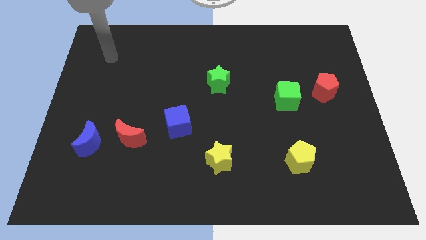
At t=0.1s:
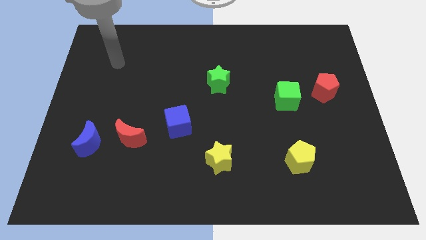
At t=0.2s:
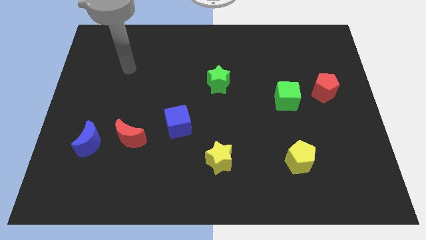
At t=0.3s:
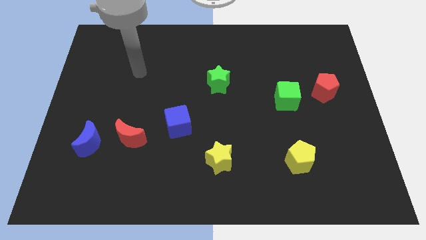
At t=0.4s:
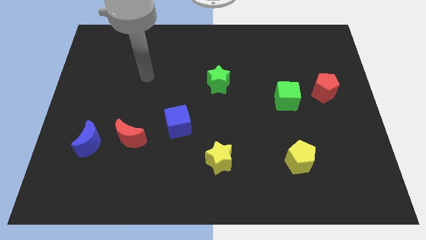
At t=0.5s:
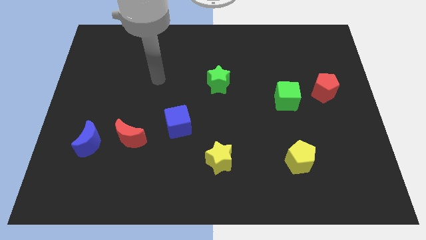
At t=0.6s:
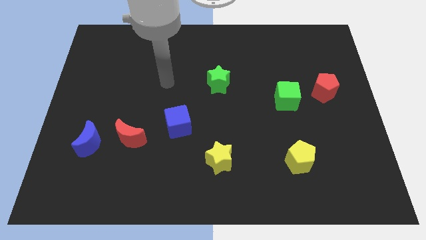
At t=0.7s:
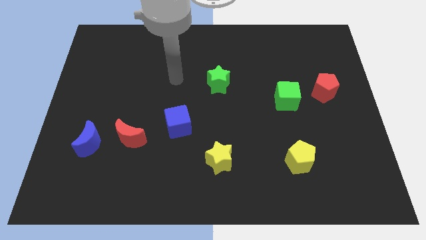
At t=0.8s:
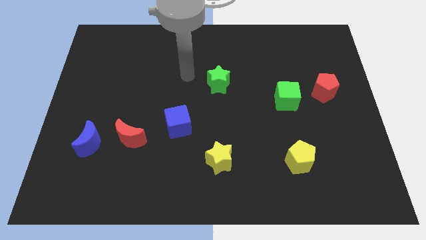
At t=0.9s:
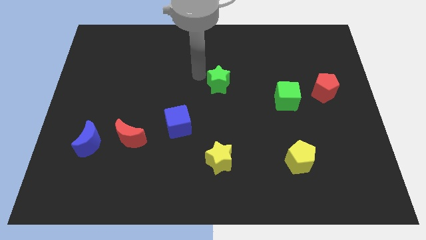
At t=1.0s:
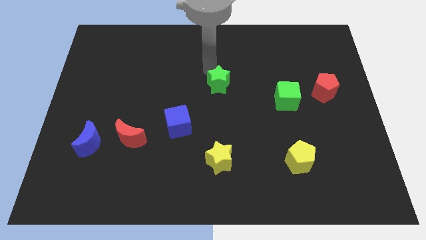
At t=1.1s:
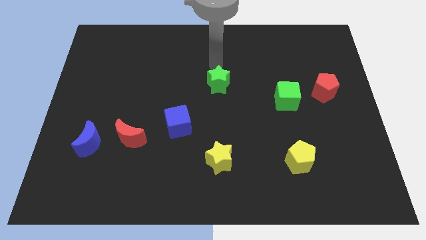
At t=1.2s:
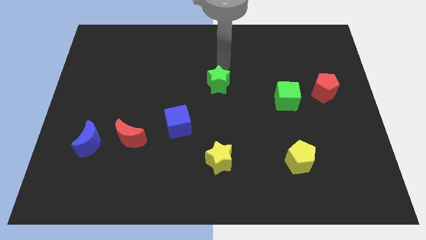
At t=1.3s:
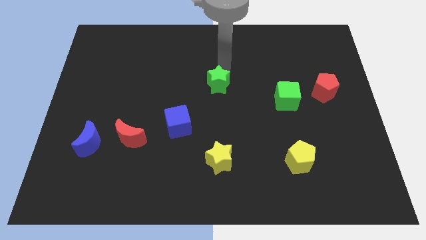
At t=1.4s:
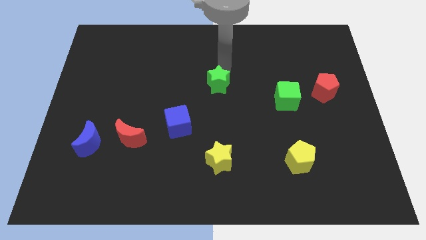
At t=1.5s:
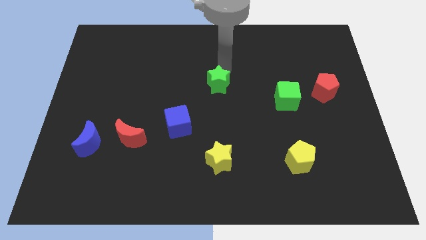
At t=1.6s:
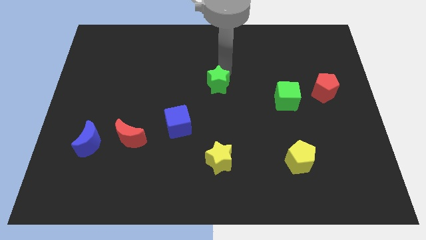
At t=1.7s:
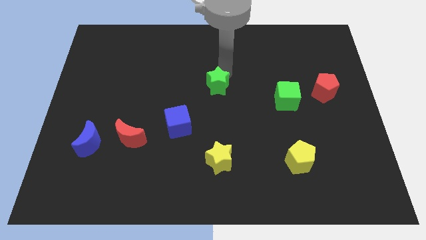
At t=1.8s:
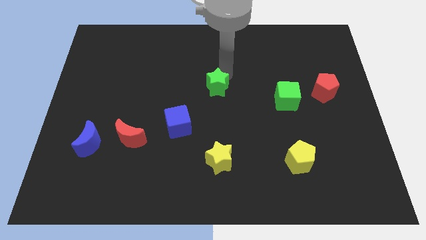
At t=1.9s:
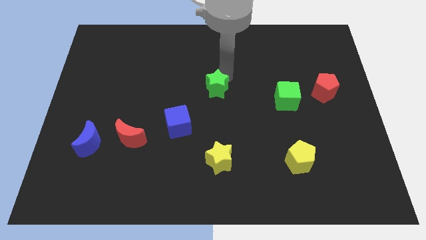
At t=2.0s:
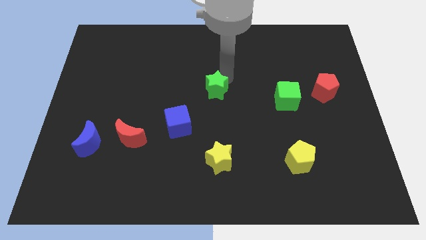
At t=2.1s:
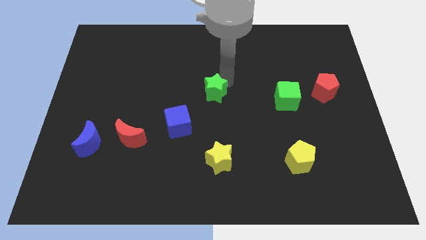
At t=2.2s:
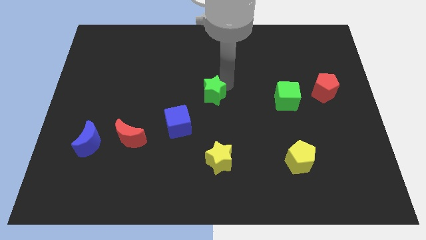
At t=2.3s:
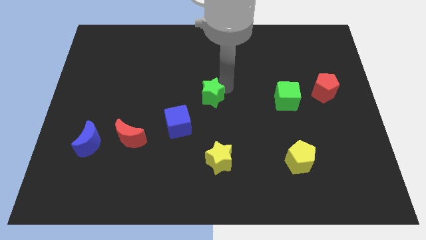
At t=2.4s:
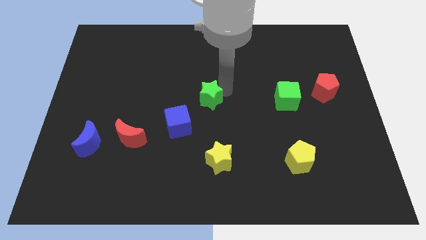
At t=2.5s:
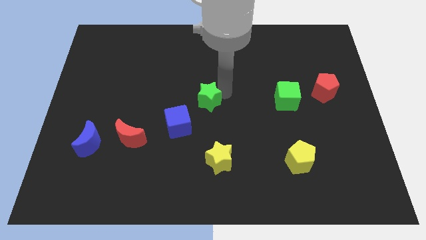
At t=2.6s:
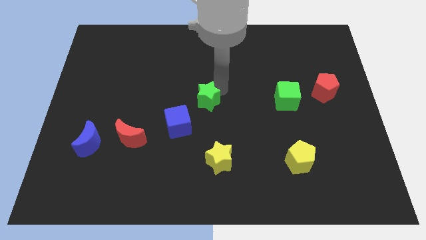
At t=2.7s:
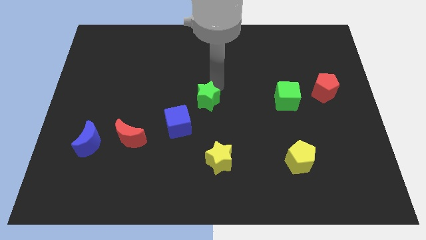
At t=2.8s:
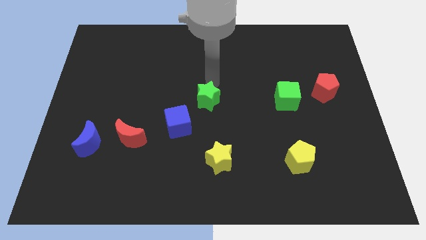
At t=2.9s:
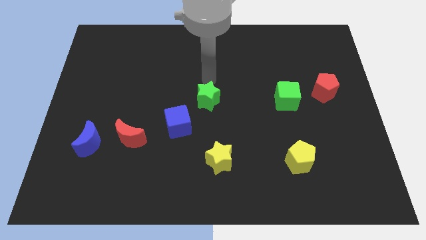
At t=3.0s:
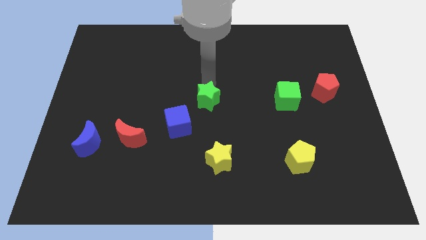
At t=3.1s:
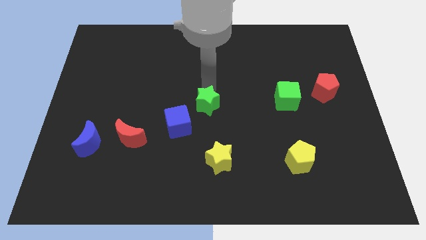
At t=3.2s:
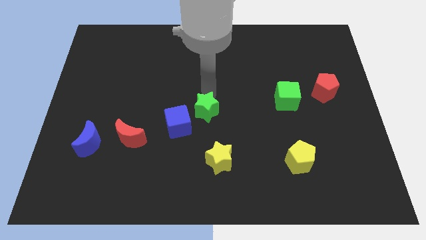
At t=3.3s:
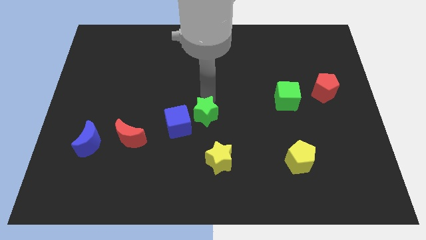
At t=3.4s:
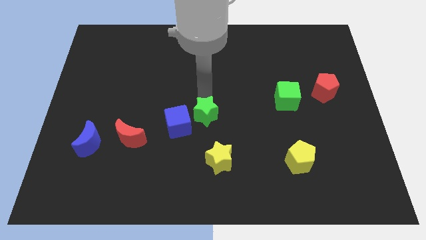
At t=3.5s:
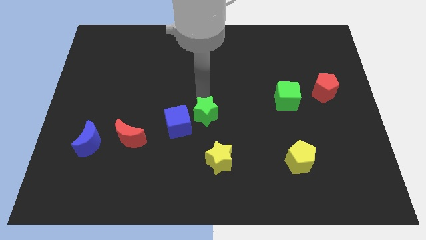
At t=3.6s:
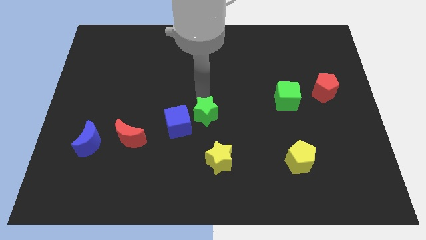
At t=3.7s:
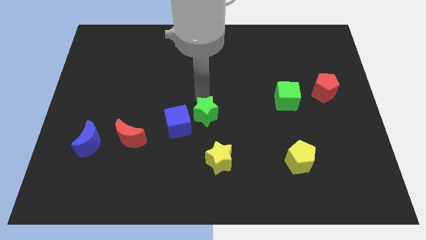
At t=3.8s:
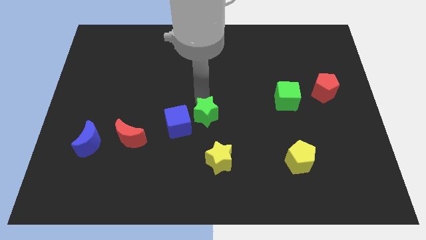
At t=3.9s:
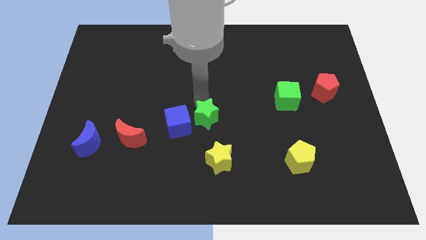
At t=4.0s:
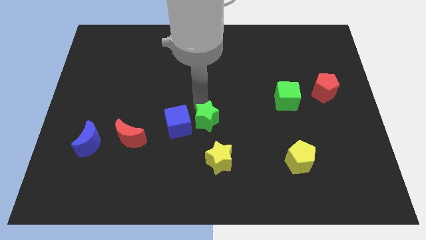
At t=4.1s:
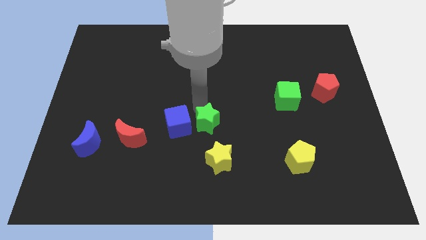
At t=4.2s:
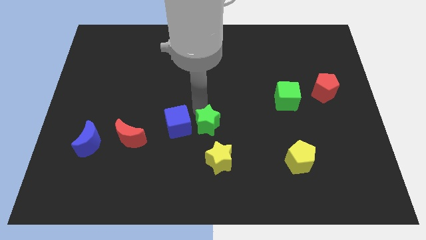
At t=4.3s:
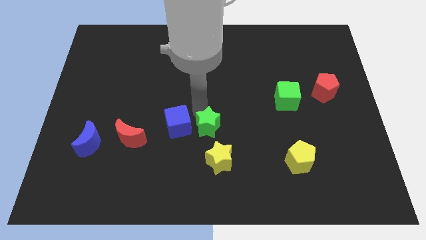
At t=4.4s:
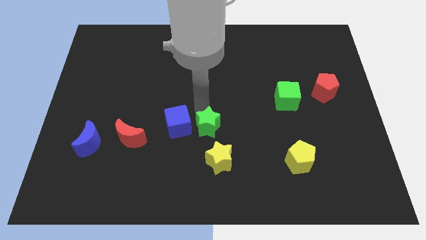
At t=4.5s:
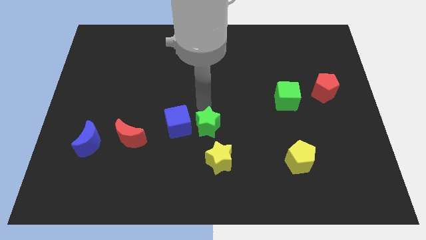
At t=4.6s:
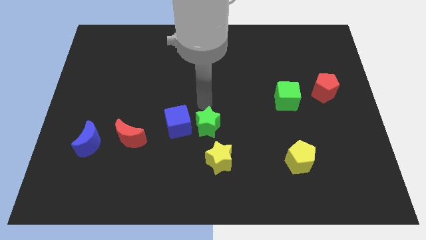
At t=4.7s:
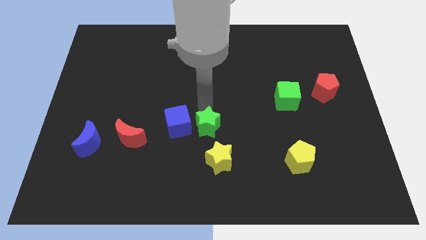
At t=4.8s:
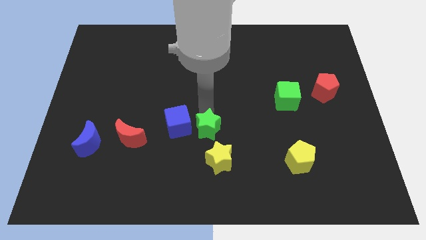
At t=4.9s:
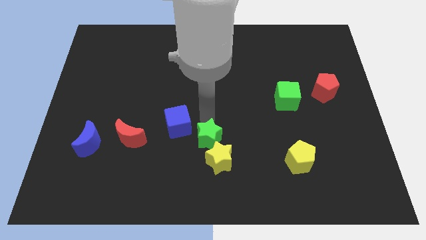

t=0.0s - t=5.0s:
push the green star towards the yellow star

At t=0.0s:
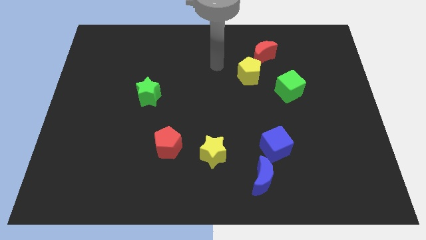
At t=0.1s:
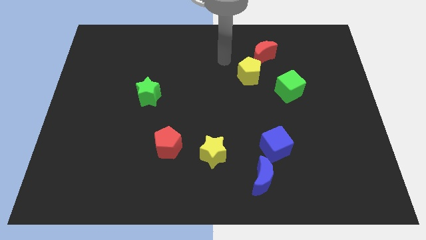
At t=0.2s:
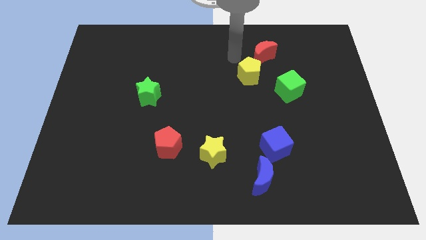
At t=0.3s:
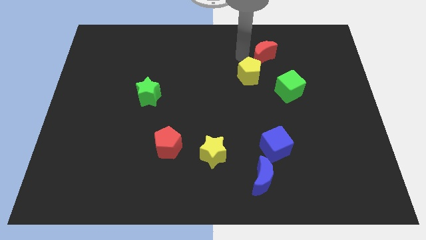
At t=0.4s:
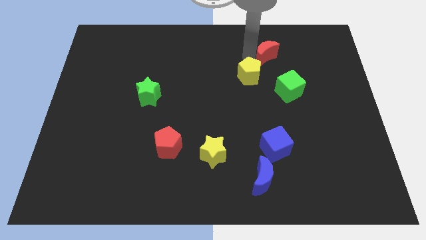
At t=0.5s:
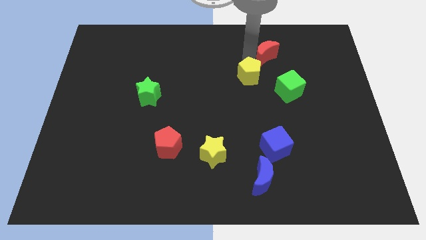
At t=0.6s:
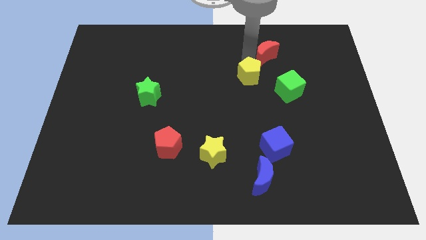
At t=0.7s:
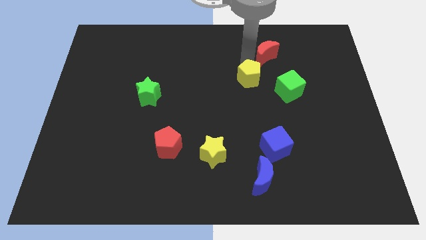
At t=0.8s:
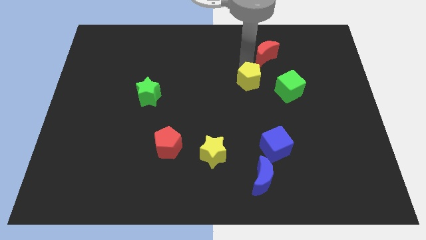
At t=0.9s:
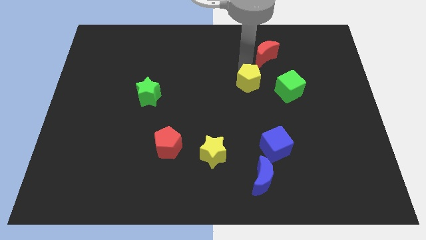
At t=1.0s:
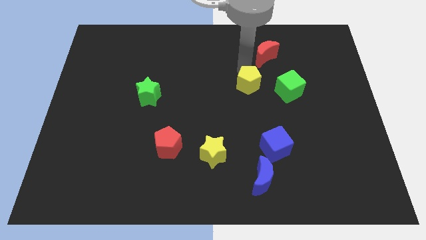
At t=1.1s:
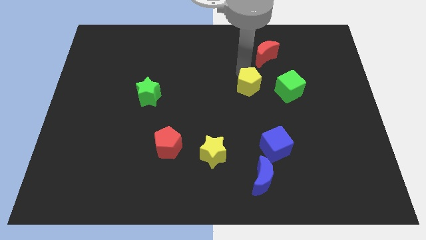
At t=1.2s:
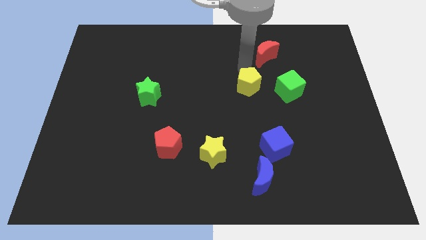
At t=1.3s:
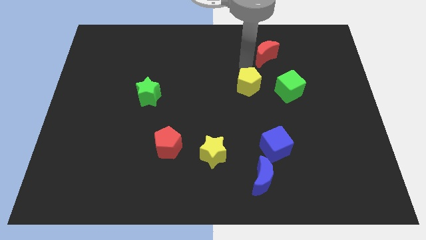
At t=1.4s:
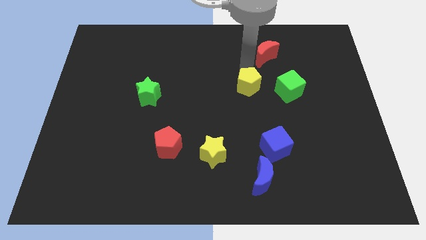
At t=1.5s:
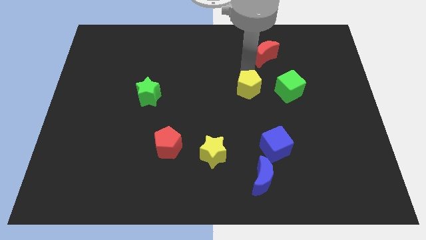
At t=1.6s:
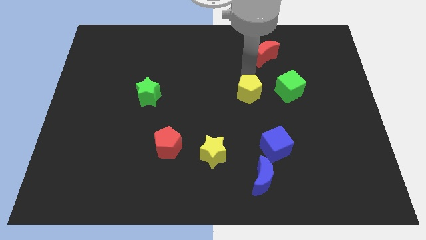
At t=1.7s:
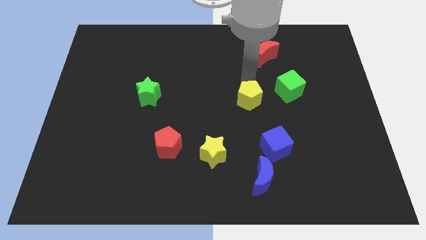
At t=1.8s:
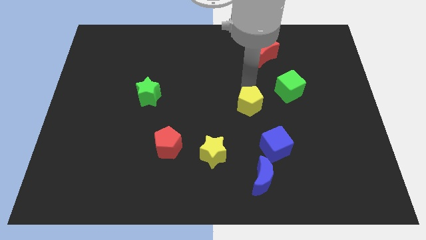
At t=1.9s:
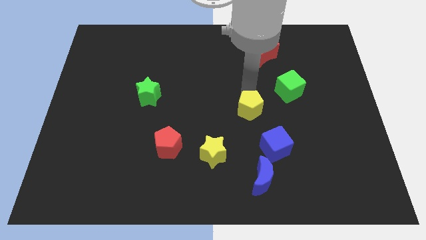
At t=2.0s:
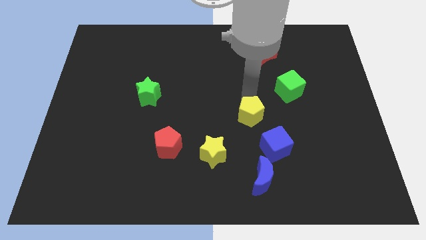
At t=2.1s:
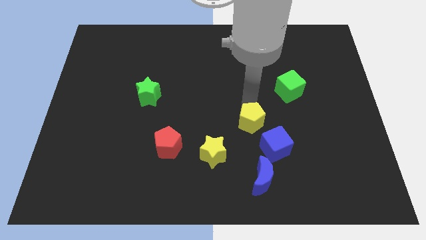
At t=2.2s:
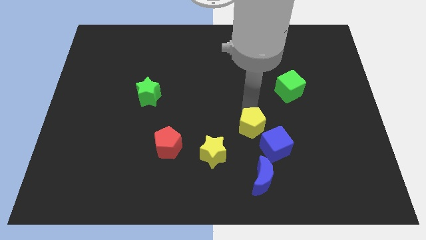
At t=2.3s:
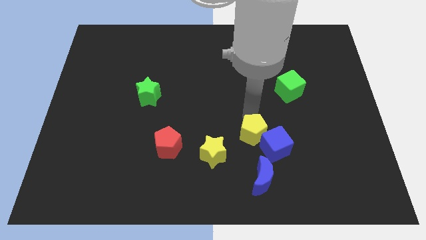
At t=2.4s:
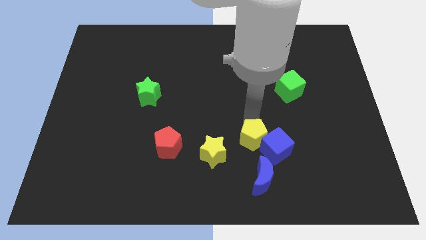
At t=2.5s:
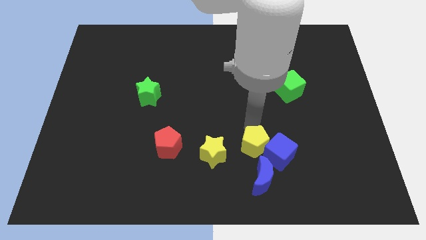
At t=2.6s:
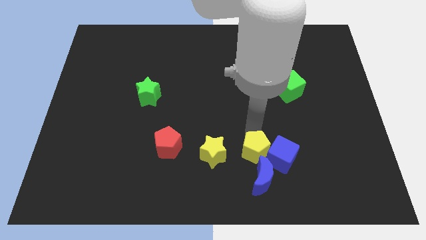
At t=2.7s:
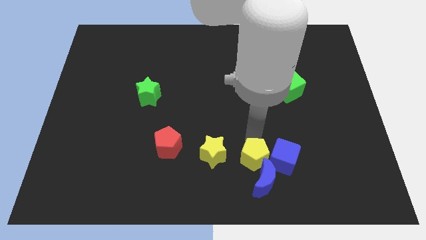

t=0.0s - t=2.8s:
slide the yellow pentagon close to the blue moon
